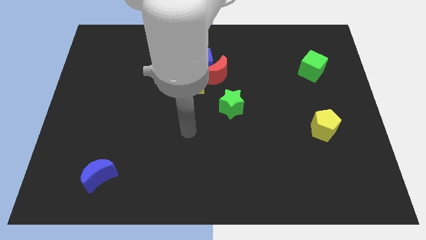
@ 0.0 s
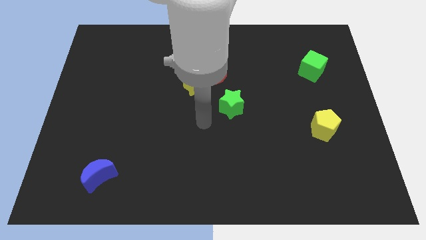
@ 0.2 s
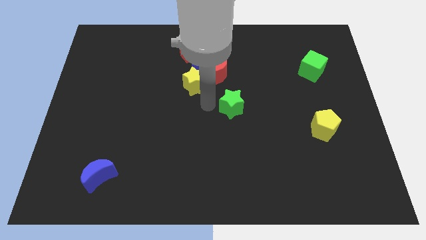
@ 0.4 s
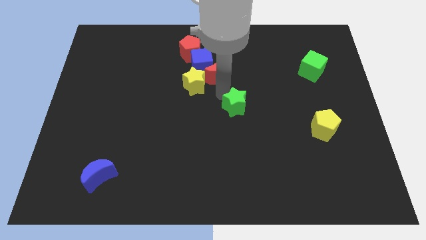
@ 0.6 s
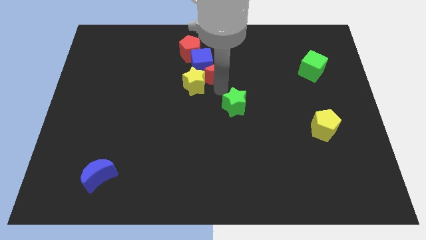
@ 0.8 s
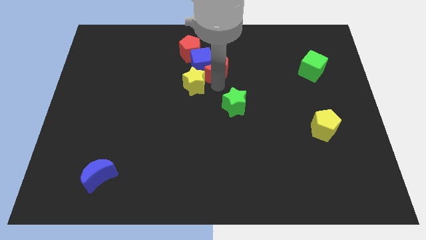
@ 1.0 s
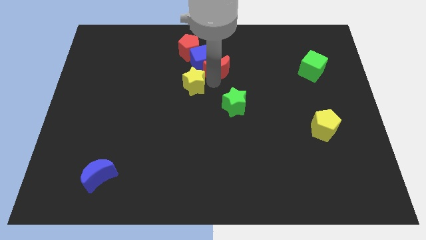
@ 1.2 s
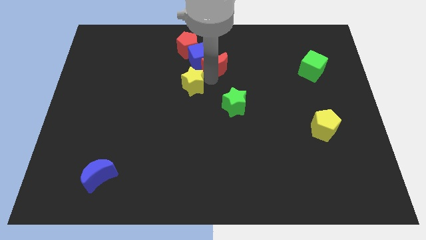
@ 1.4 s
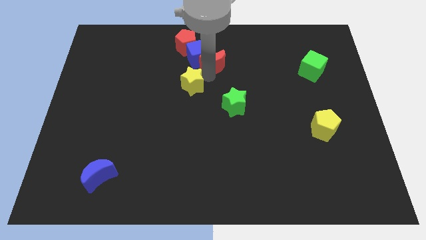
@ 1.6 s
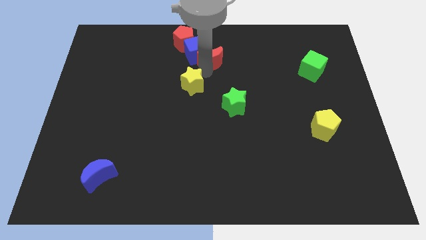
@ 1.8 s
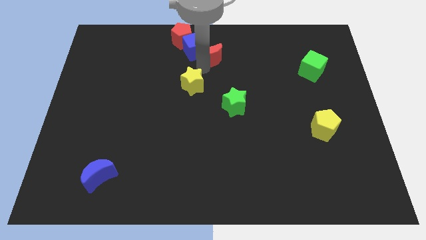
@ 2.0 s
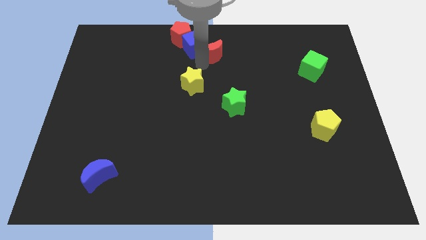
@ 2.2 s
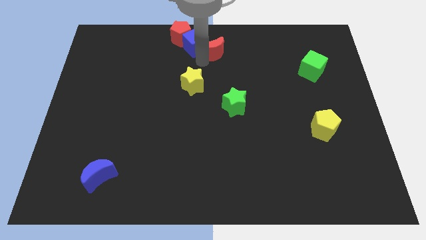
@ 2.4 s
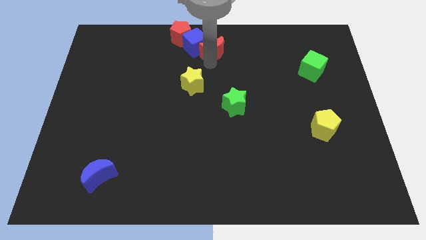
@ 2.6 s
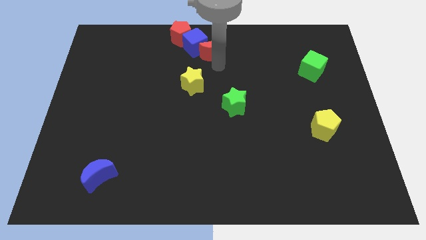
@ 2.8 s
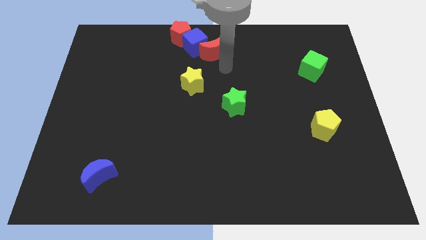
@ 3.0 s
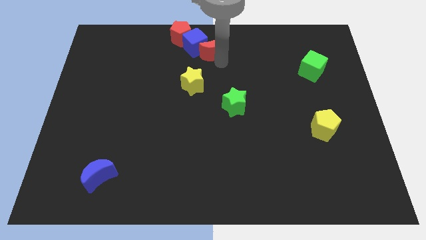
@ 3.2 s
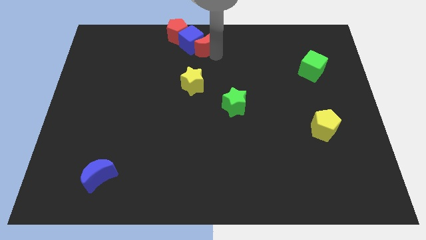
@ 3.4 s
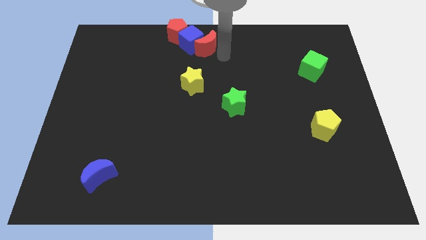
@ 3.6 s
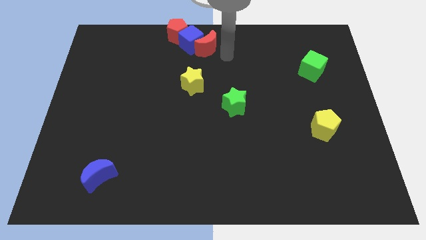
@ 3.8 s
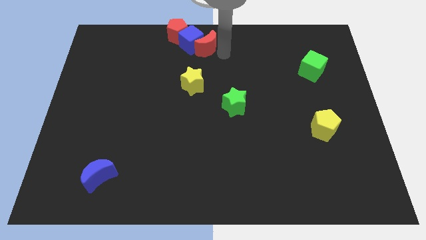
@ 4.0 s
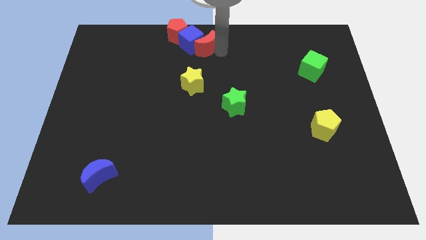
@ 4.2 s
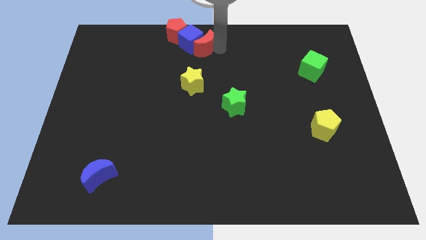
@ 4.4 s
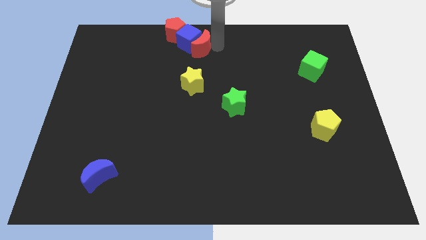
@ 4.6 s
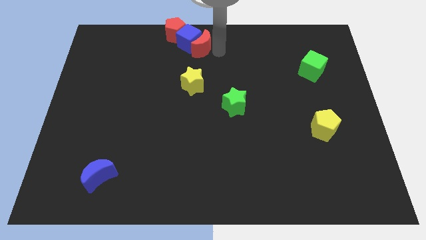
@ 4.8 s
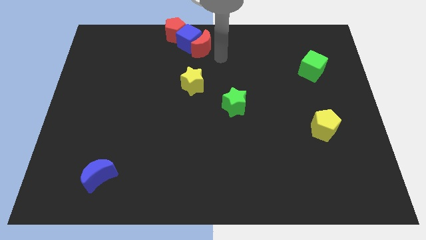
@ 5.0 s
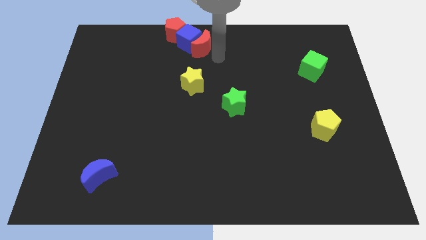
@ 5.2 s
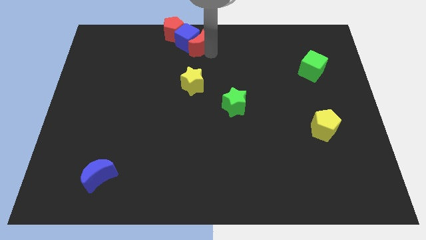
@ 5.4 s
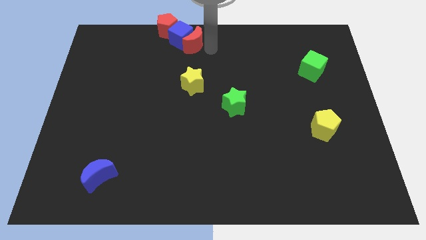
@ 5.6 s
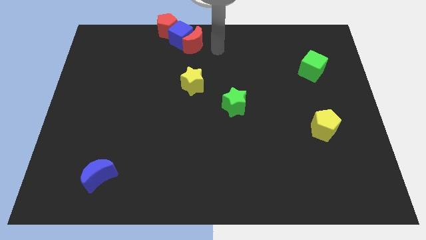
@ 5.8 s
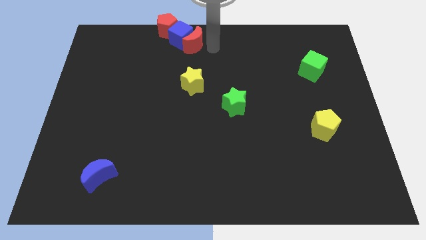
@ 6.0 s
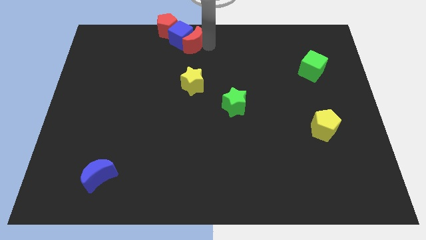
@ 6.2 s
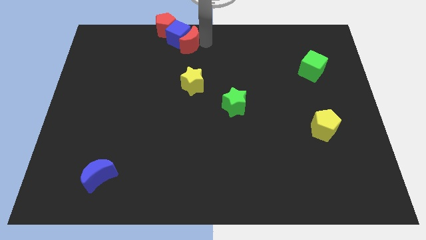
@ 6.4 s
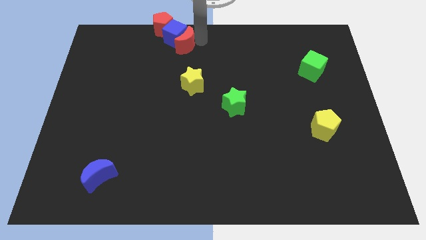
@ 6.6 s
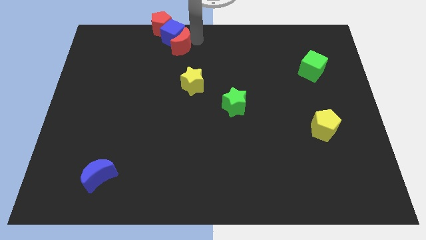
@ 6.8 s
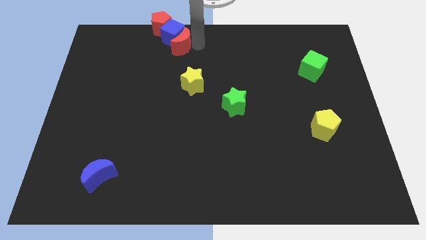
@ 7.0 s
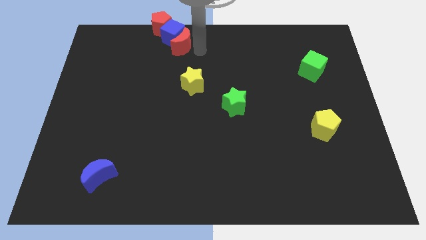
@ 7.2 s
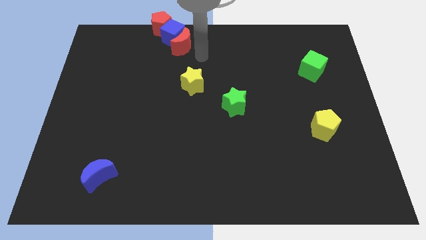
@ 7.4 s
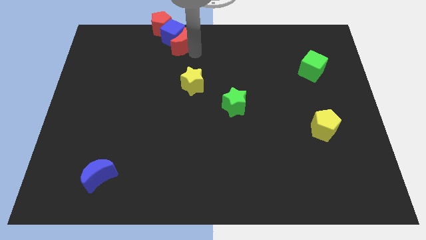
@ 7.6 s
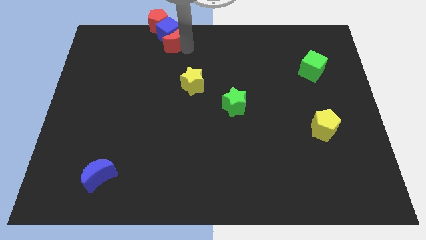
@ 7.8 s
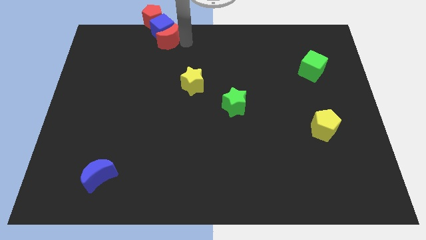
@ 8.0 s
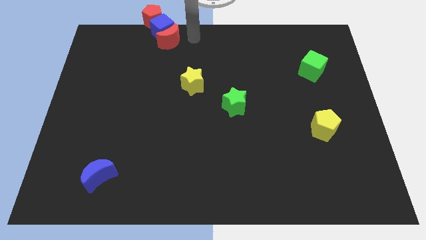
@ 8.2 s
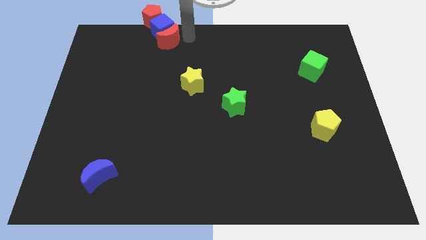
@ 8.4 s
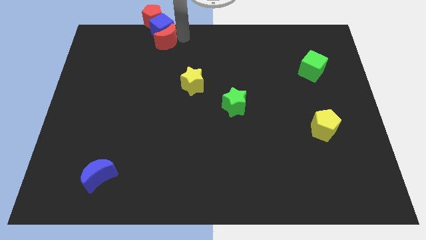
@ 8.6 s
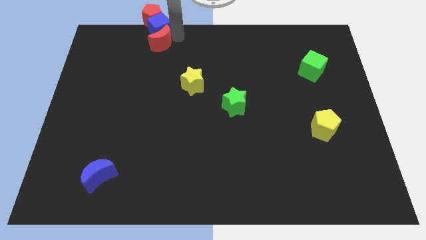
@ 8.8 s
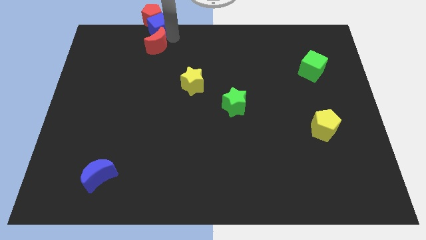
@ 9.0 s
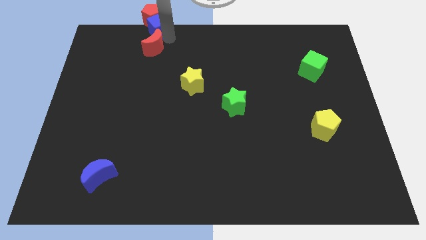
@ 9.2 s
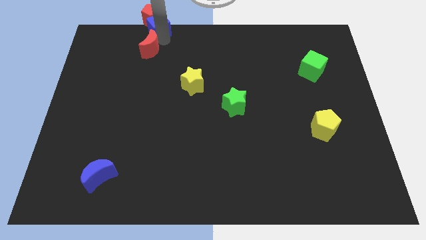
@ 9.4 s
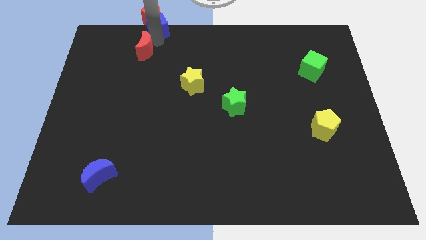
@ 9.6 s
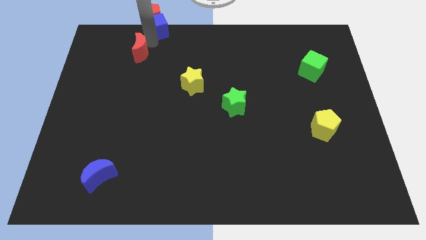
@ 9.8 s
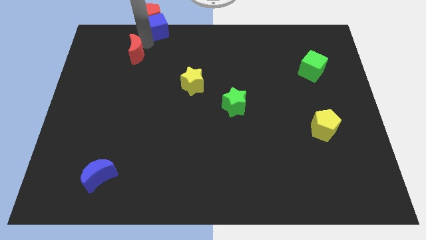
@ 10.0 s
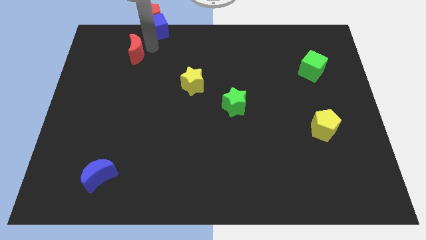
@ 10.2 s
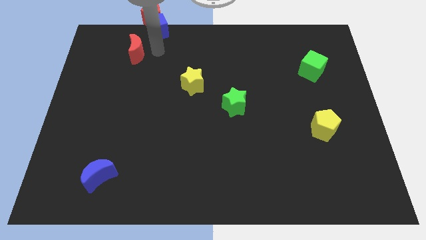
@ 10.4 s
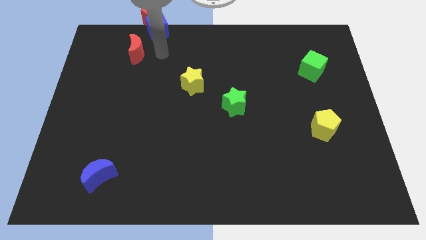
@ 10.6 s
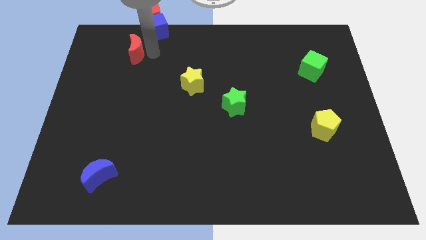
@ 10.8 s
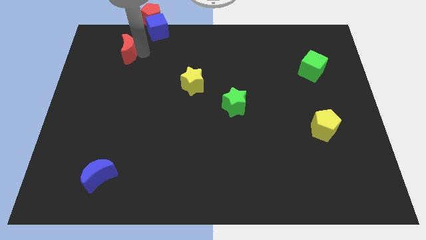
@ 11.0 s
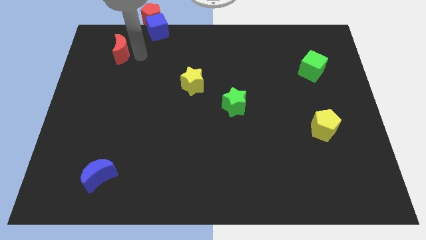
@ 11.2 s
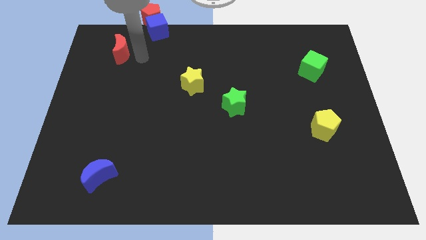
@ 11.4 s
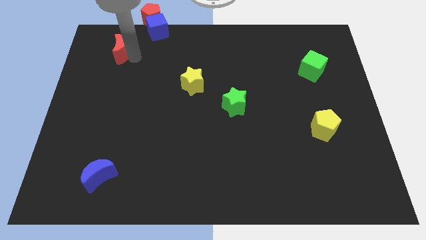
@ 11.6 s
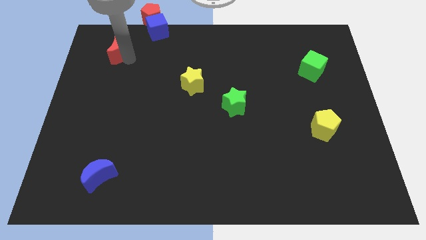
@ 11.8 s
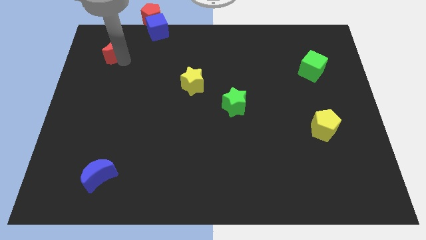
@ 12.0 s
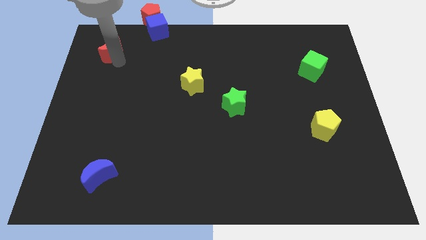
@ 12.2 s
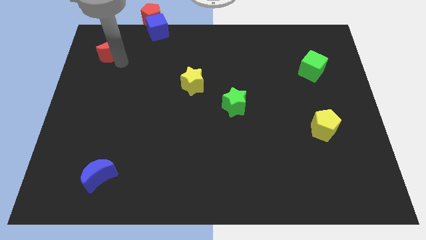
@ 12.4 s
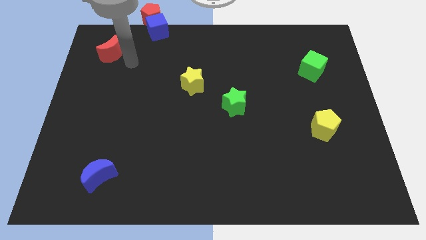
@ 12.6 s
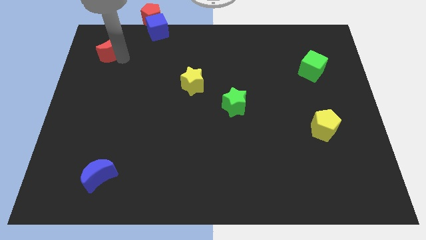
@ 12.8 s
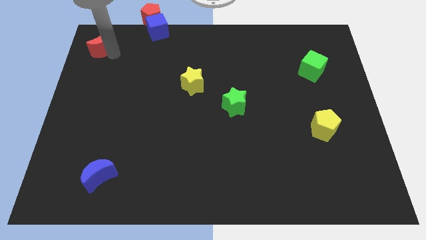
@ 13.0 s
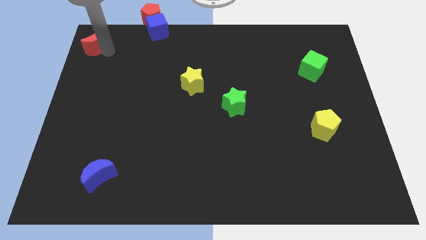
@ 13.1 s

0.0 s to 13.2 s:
move the red moon to the upper left corner

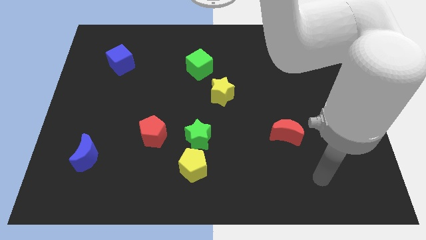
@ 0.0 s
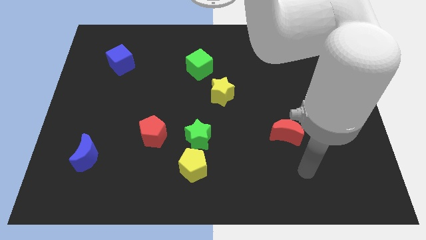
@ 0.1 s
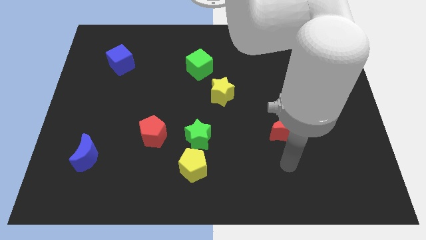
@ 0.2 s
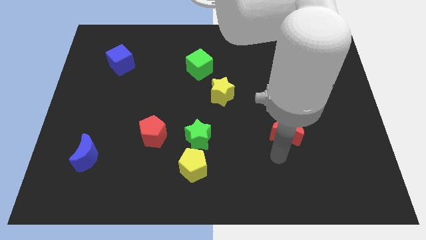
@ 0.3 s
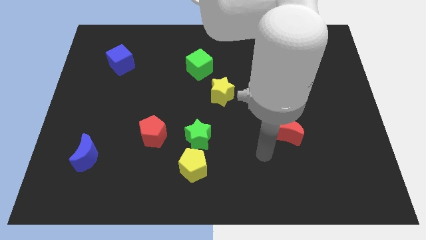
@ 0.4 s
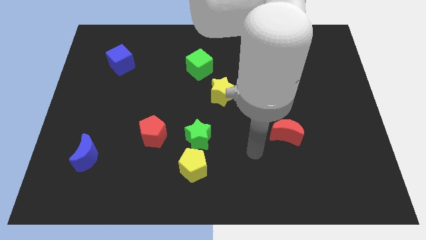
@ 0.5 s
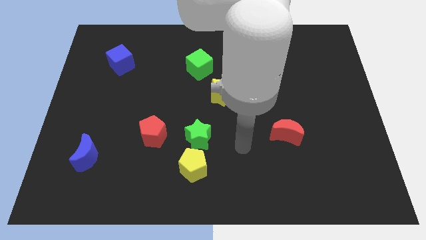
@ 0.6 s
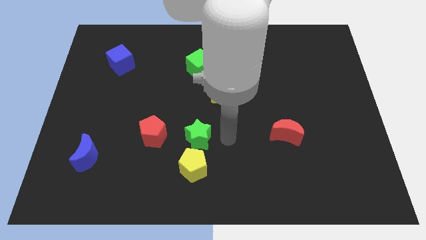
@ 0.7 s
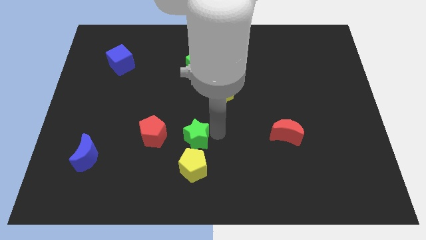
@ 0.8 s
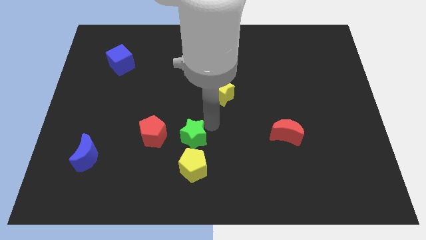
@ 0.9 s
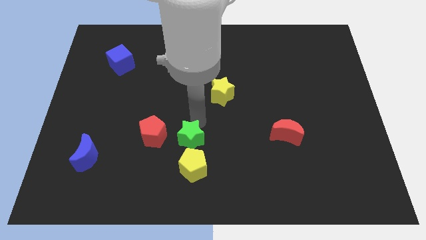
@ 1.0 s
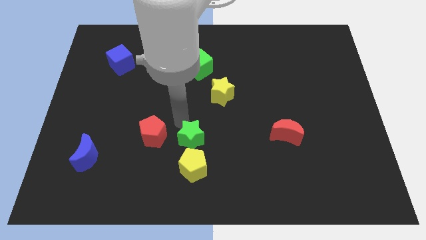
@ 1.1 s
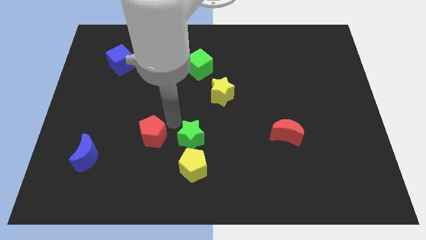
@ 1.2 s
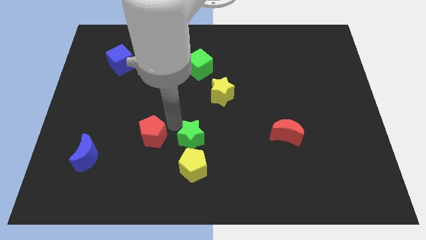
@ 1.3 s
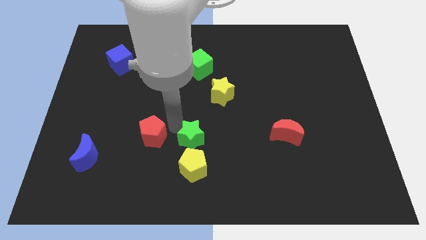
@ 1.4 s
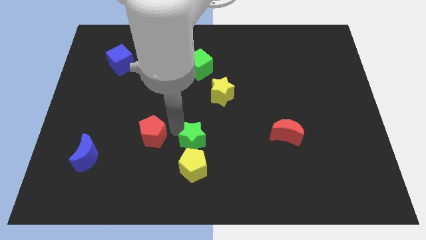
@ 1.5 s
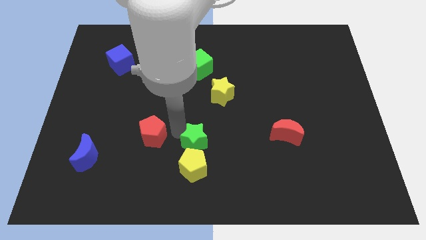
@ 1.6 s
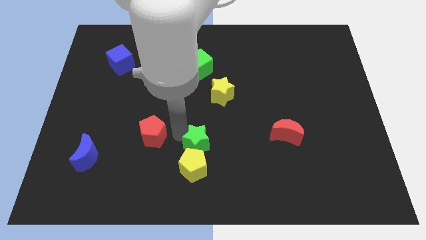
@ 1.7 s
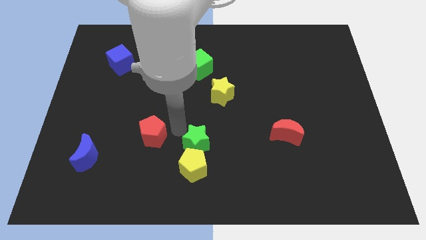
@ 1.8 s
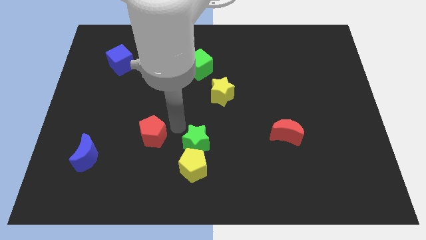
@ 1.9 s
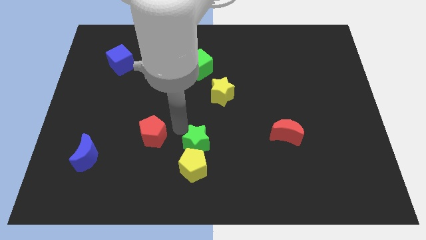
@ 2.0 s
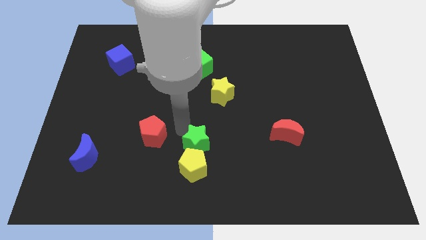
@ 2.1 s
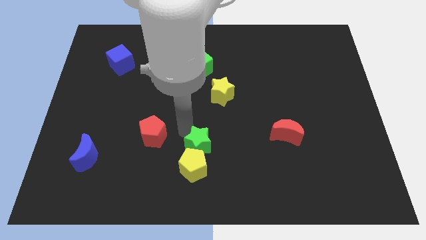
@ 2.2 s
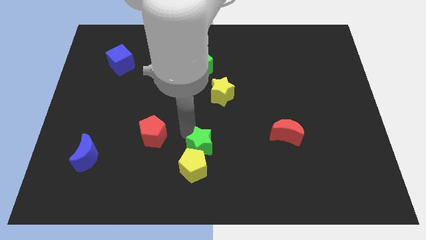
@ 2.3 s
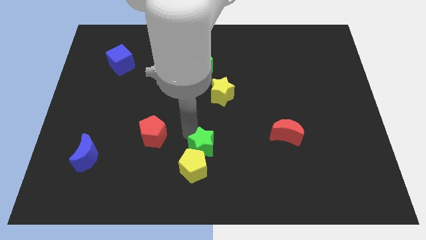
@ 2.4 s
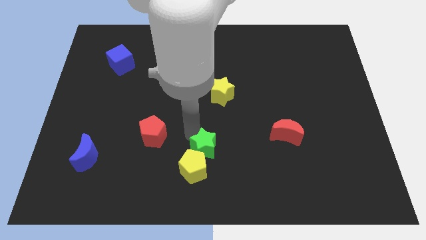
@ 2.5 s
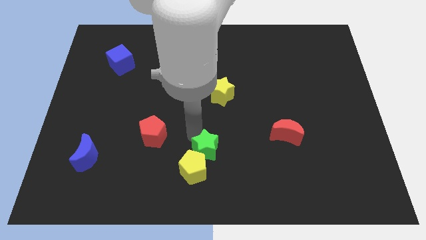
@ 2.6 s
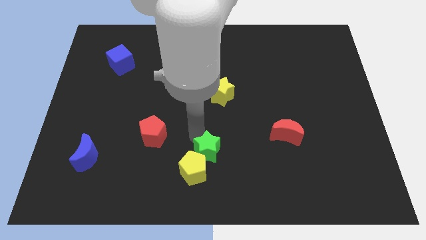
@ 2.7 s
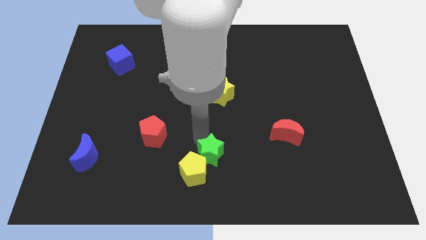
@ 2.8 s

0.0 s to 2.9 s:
push the green star to the bottom side
